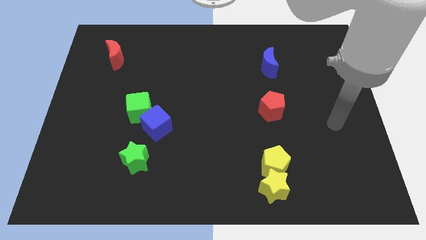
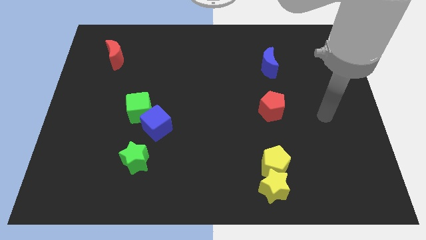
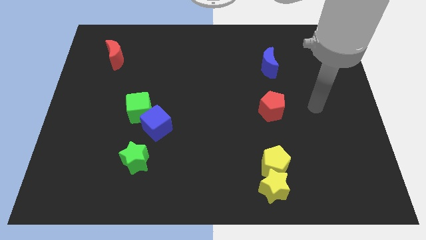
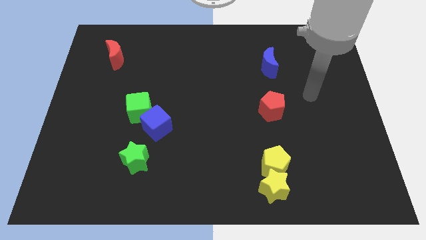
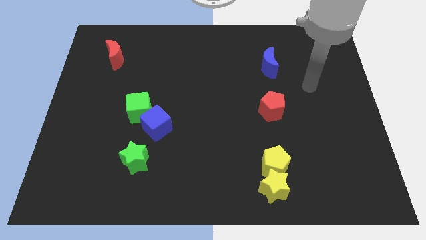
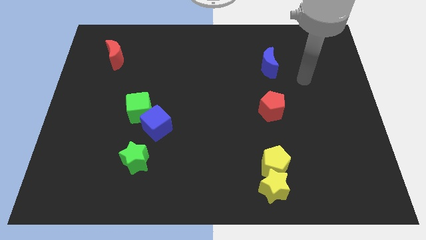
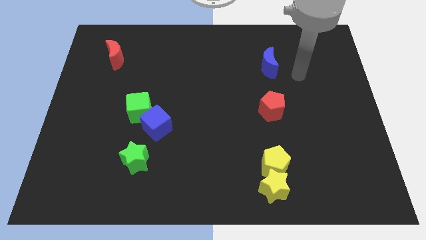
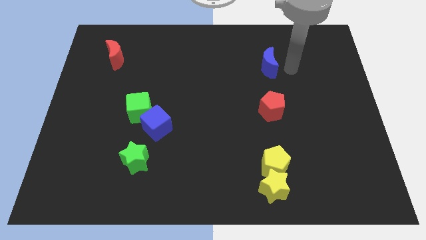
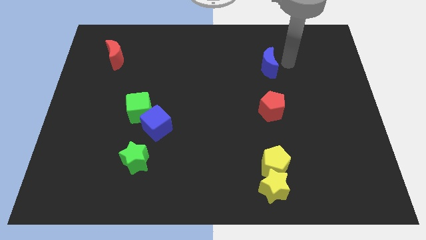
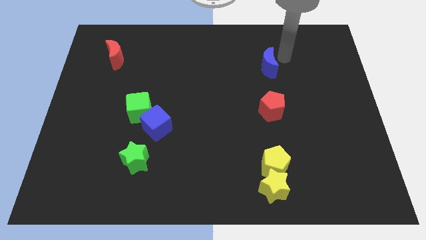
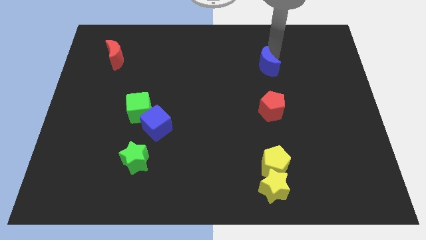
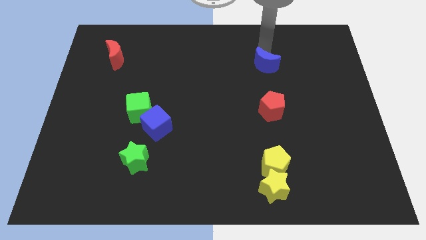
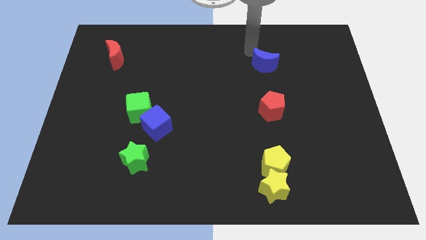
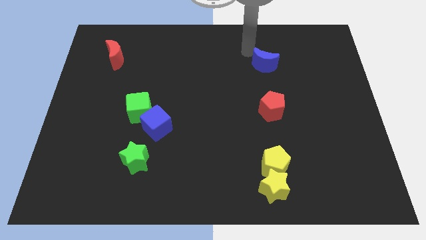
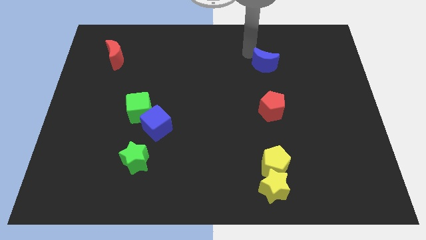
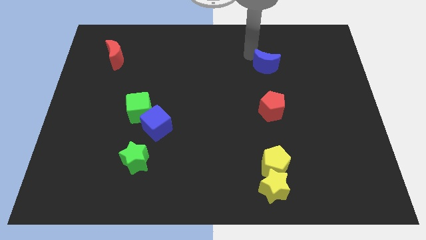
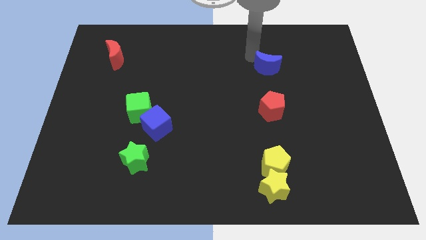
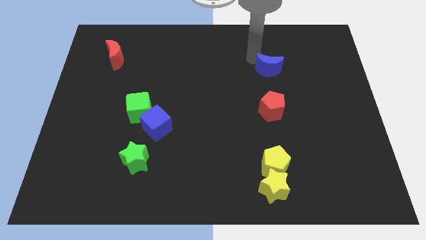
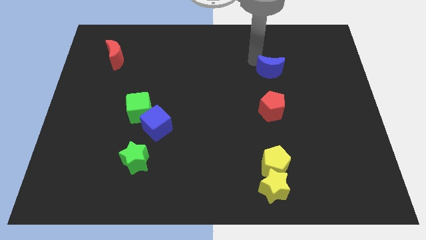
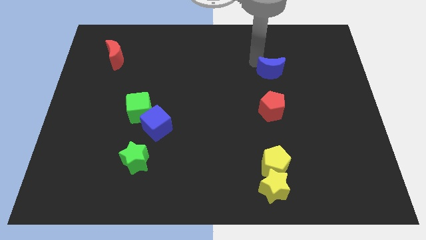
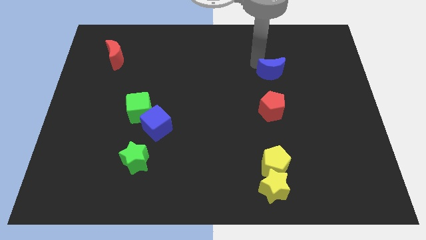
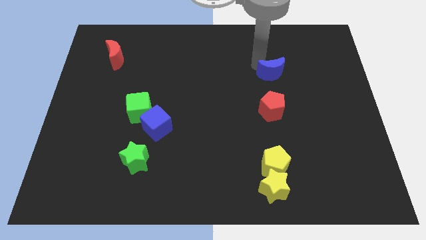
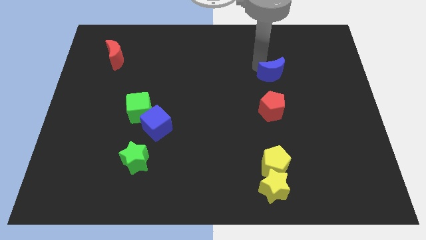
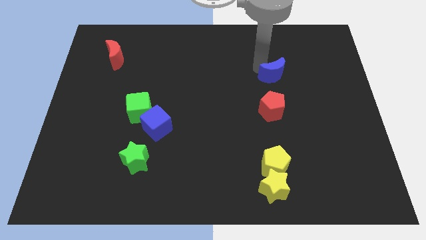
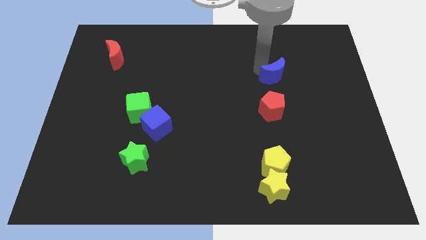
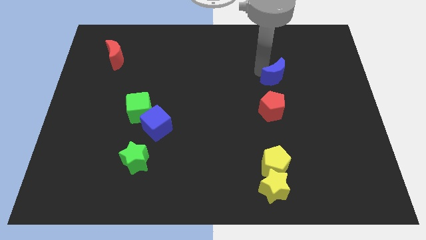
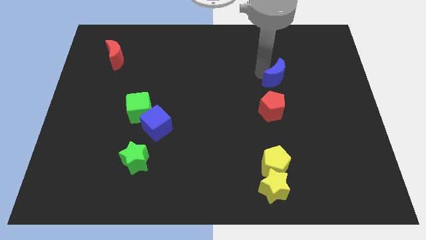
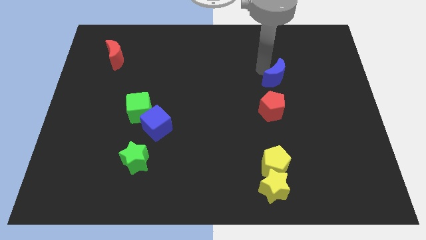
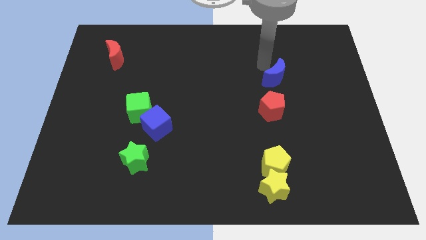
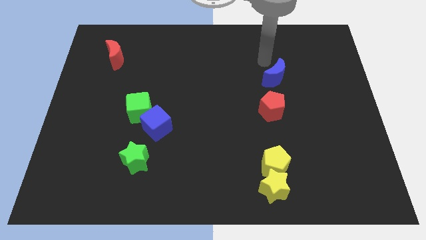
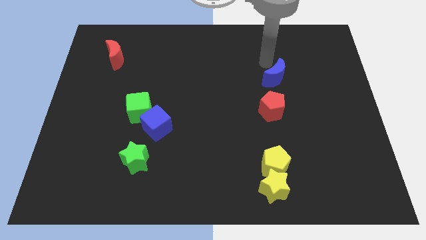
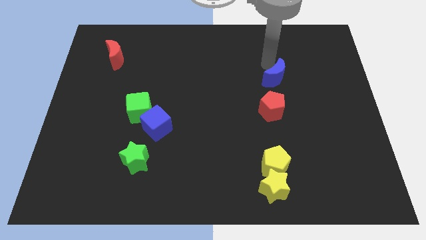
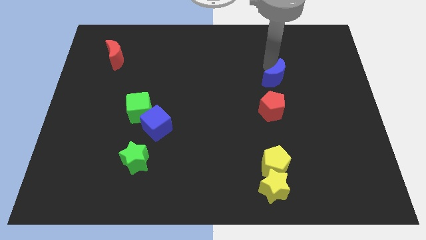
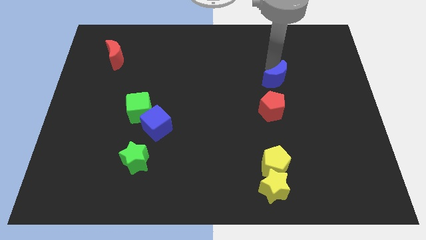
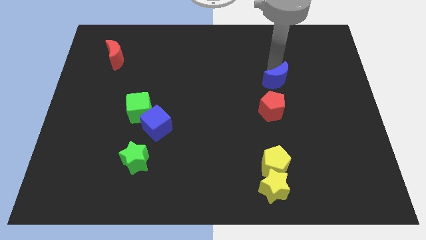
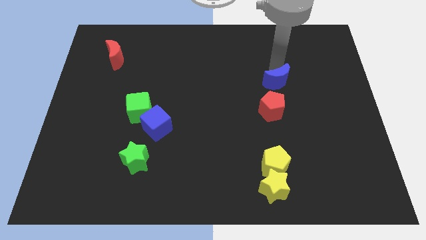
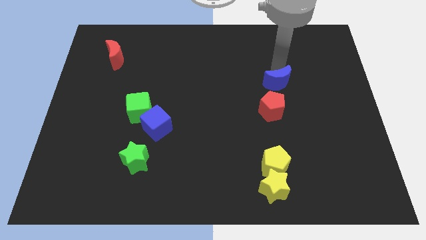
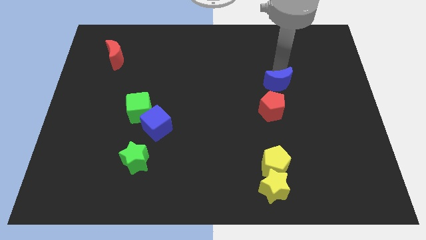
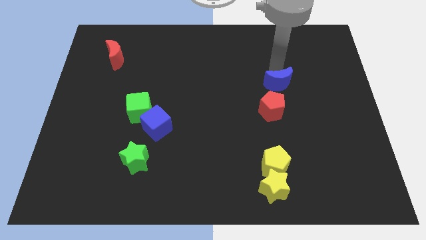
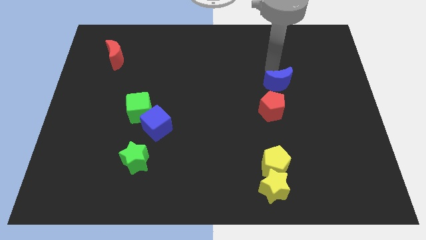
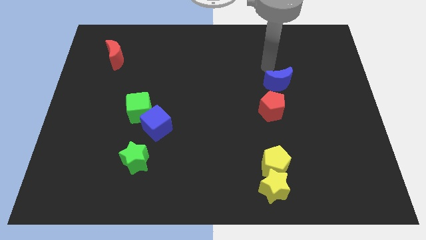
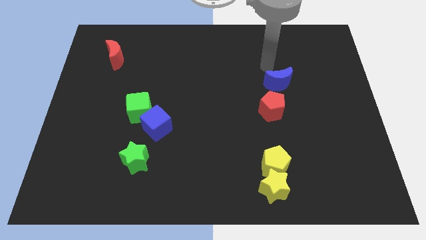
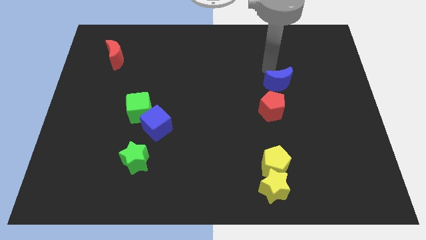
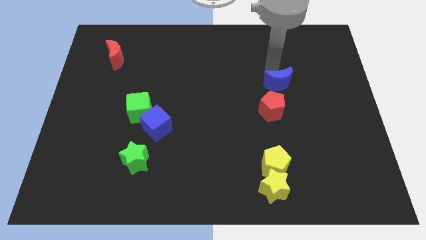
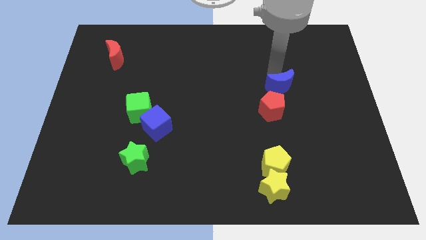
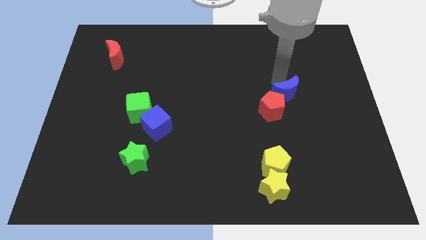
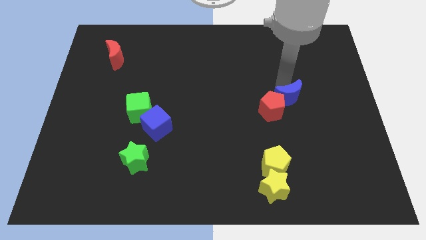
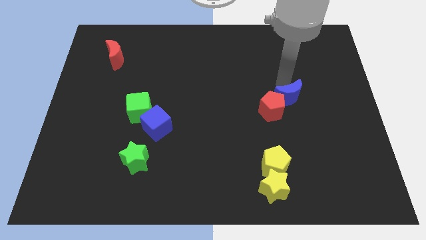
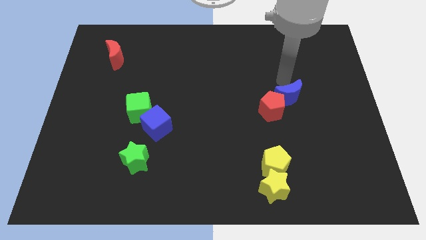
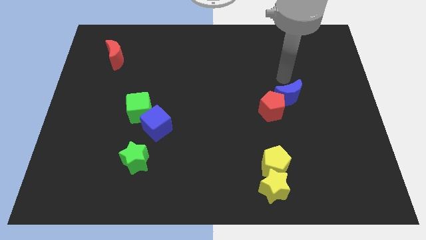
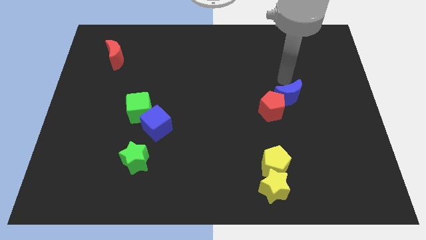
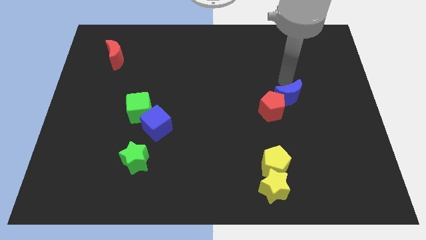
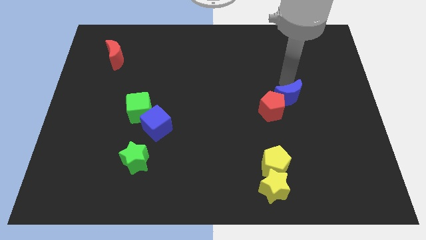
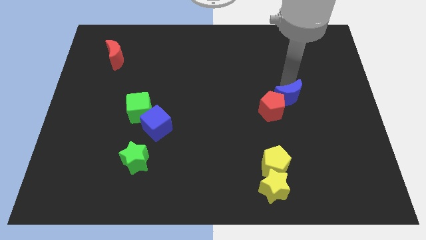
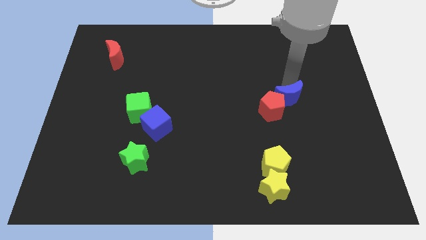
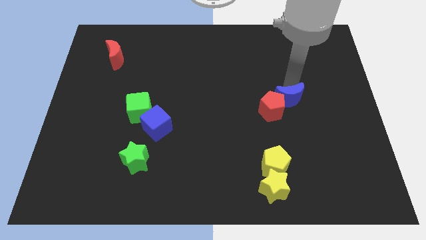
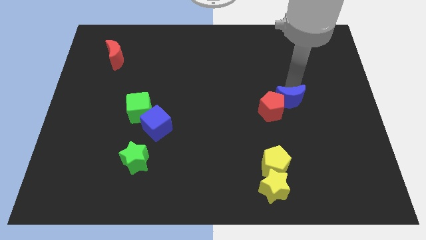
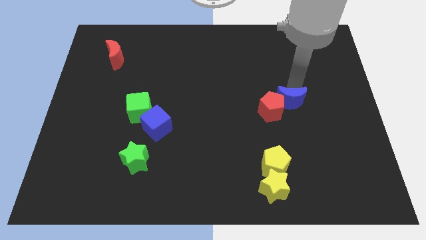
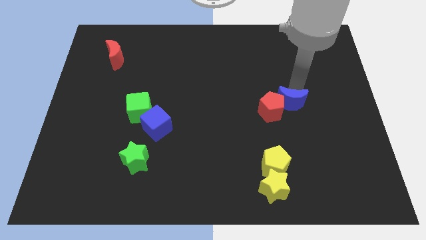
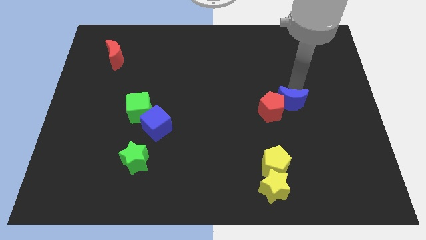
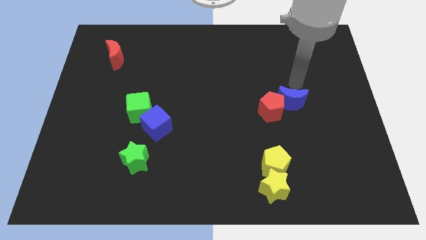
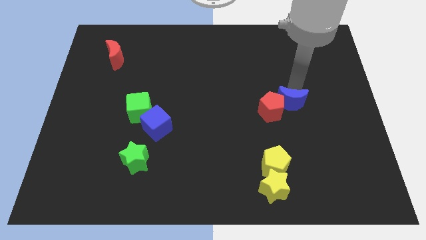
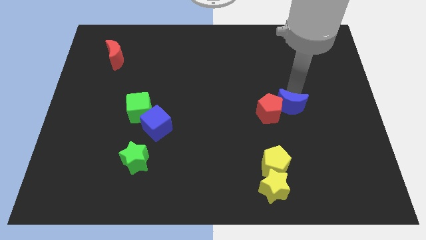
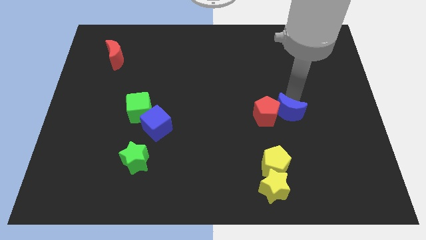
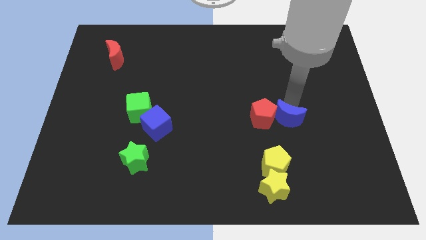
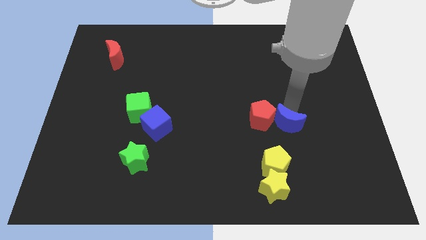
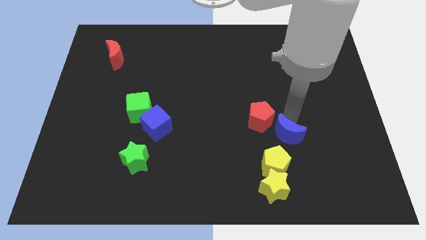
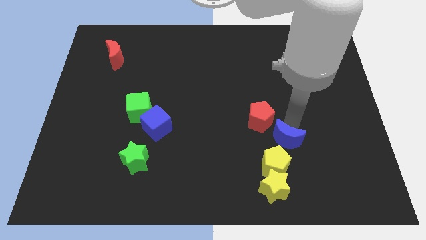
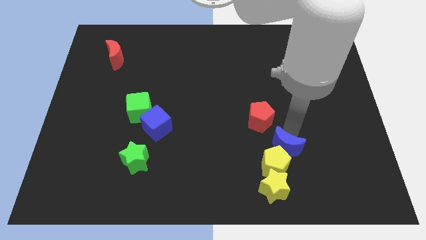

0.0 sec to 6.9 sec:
move the blue moon to the bottom side of the red pentagon

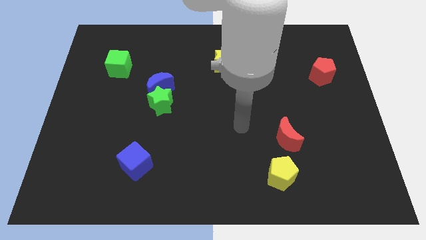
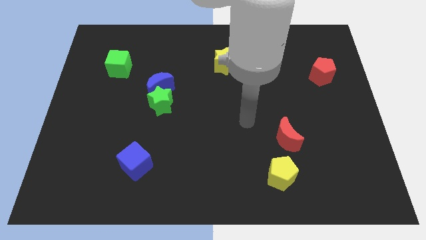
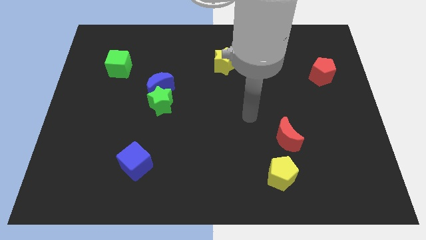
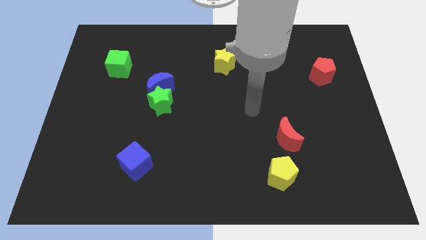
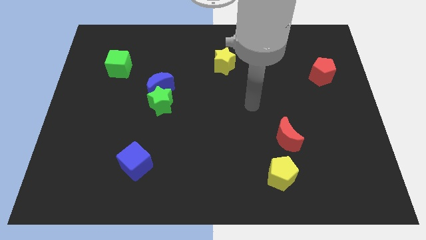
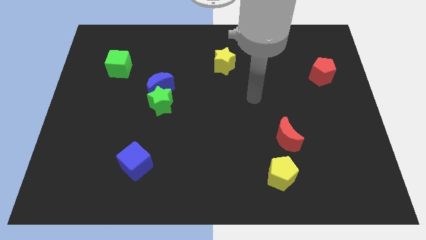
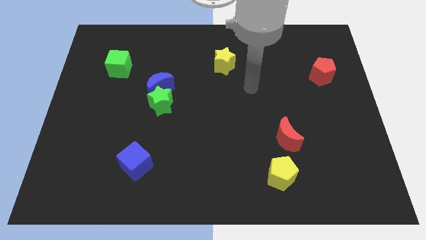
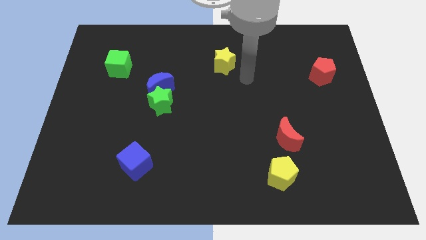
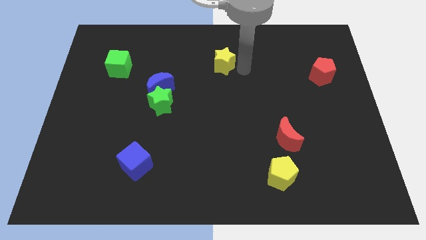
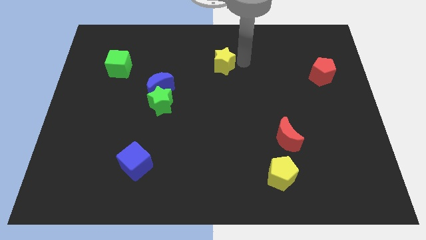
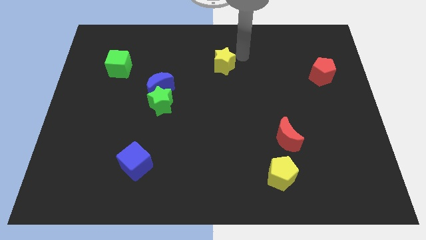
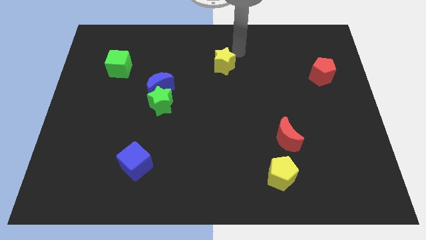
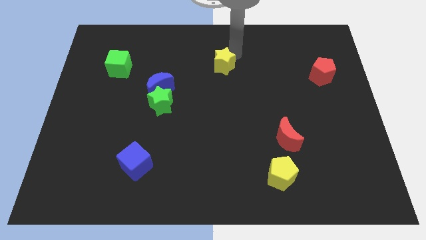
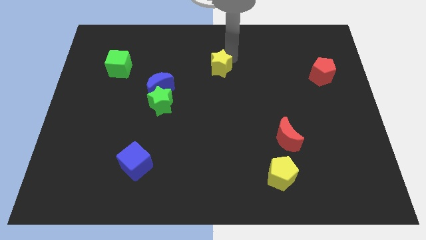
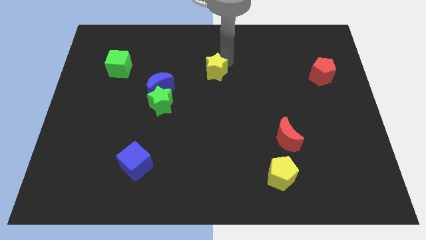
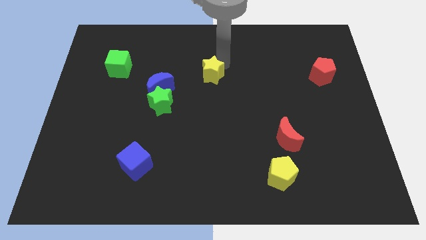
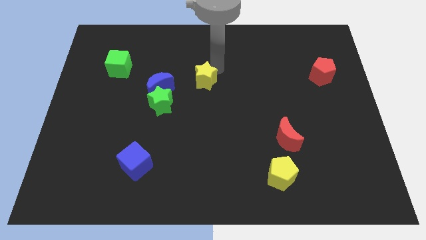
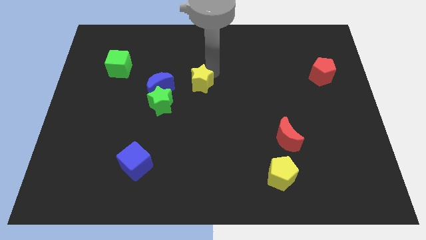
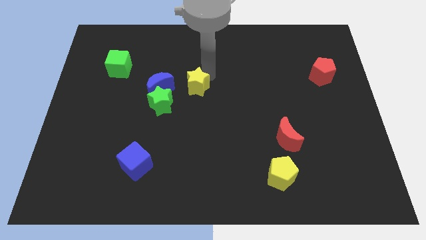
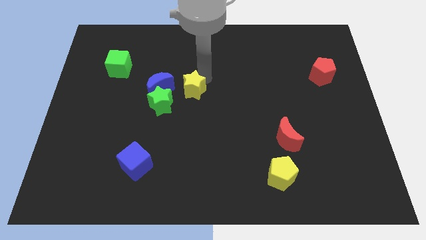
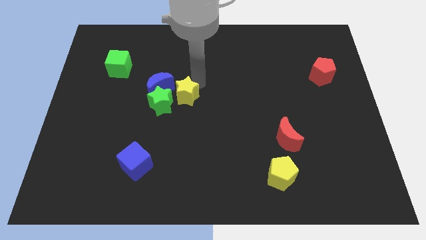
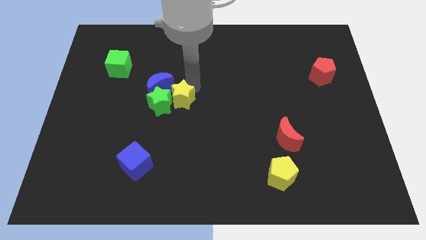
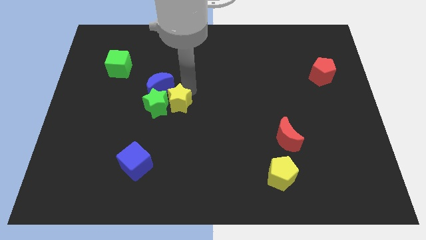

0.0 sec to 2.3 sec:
slide the yellow star to the bottom of the blue moon
